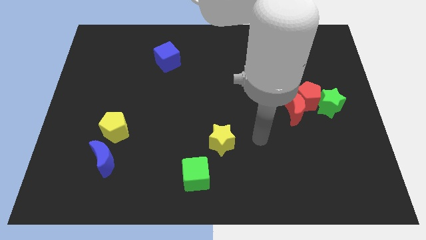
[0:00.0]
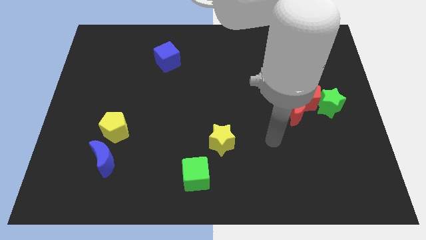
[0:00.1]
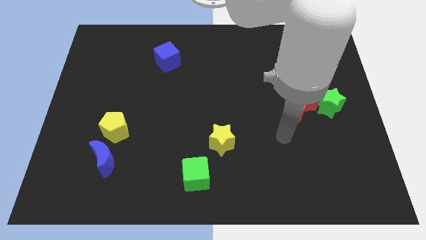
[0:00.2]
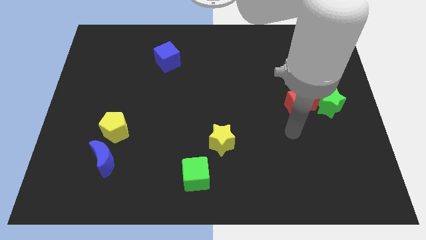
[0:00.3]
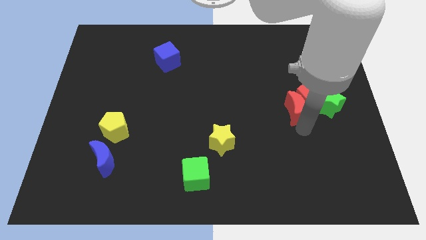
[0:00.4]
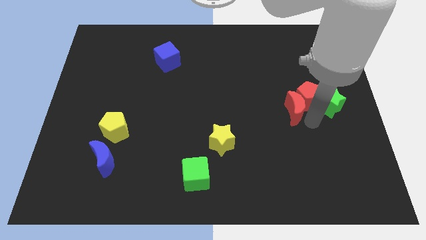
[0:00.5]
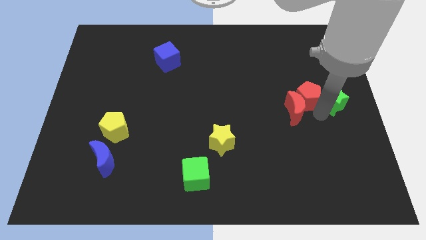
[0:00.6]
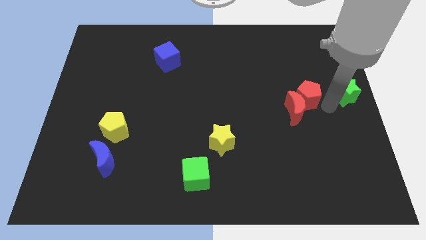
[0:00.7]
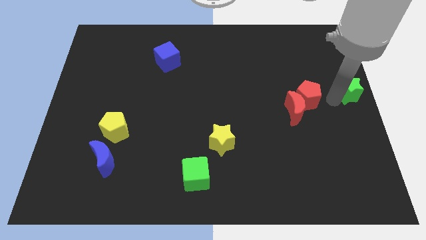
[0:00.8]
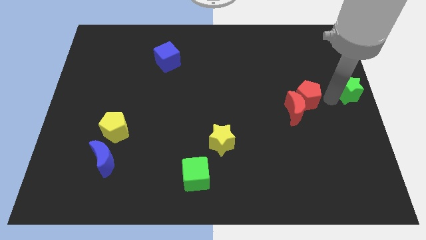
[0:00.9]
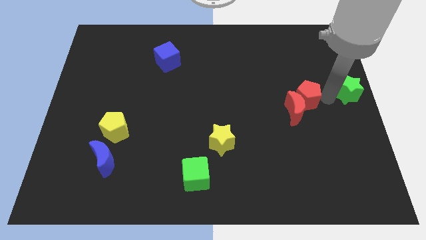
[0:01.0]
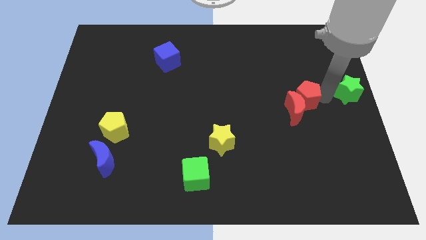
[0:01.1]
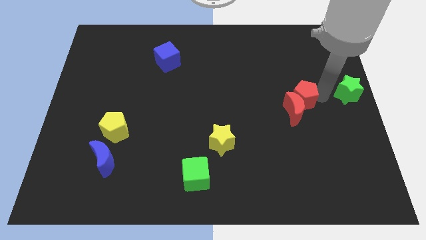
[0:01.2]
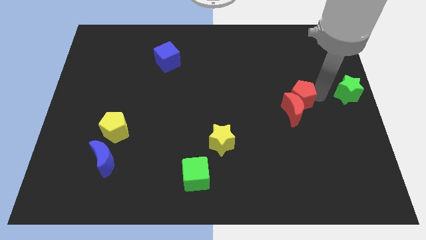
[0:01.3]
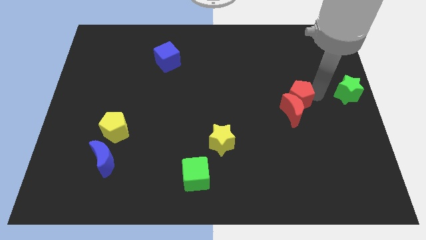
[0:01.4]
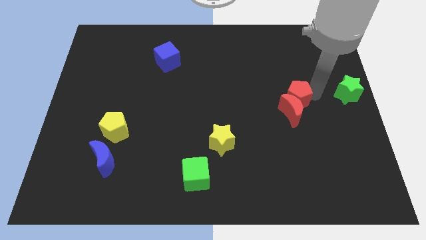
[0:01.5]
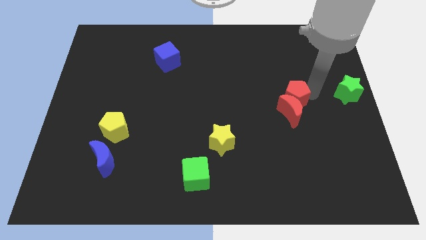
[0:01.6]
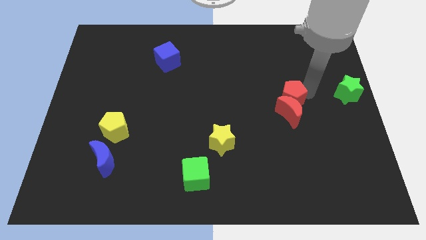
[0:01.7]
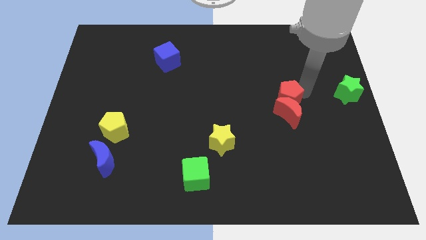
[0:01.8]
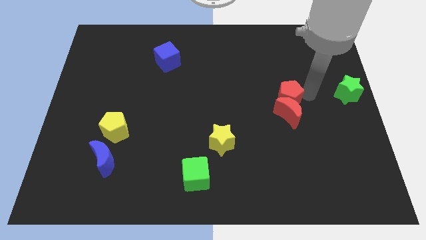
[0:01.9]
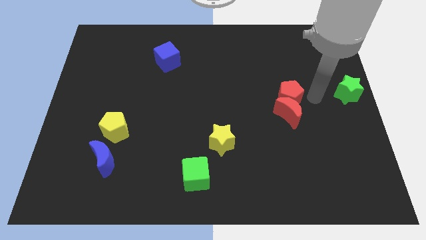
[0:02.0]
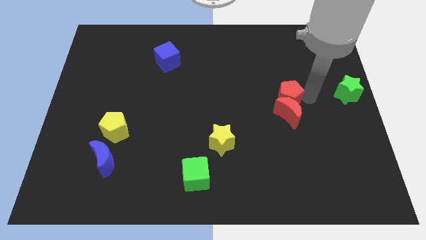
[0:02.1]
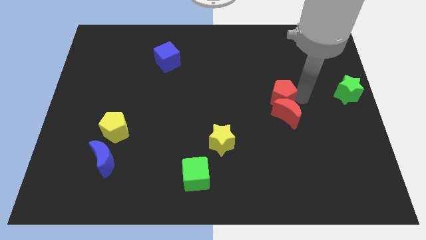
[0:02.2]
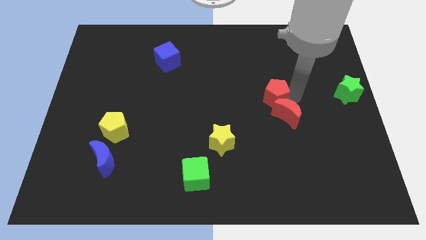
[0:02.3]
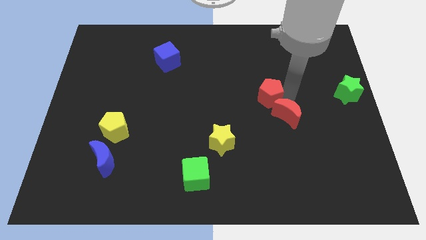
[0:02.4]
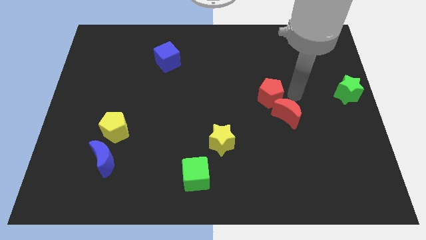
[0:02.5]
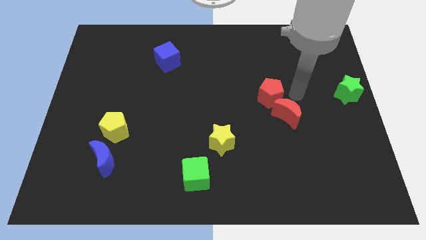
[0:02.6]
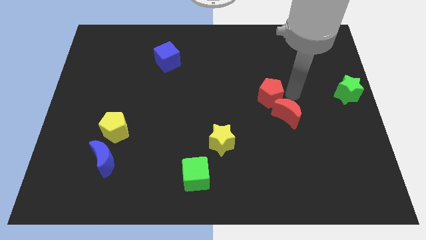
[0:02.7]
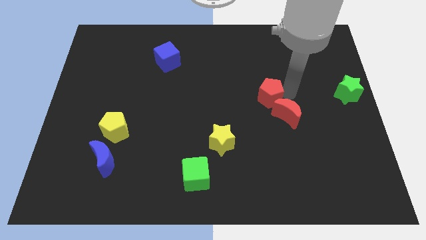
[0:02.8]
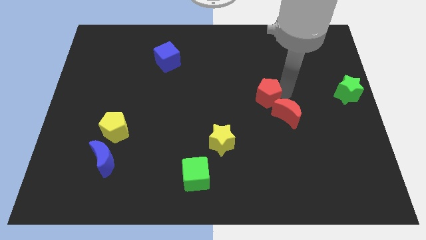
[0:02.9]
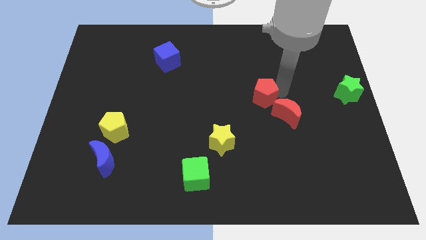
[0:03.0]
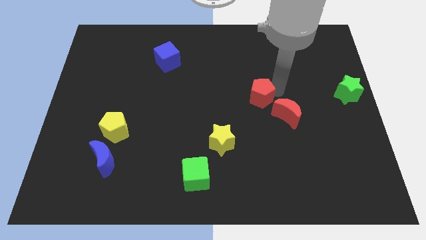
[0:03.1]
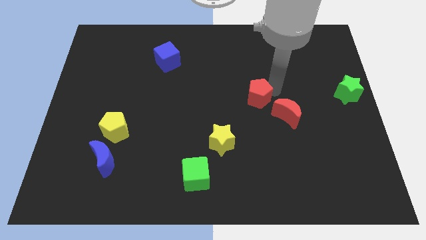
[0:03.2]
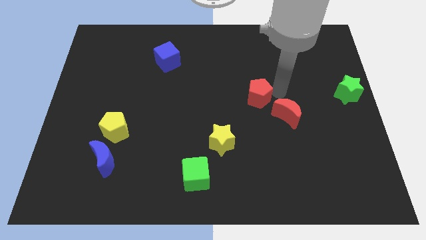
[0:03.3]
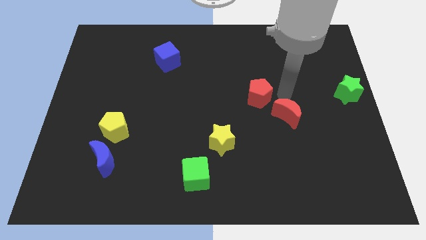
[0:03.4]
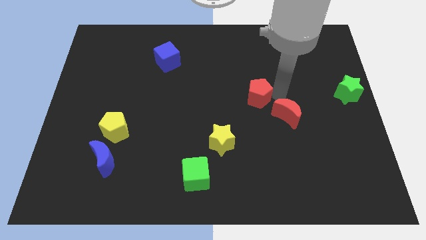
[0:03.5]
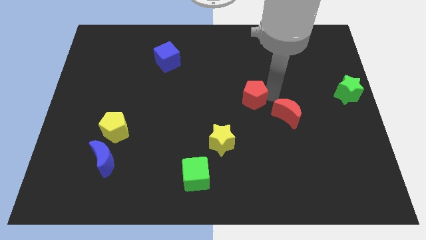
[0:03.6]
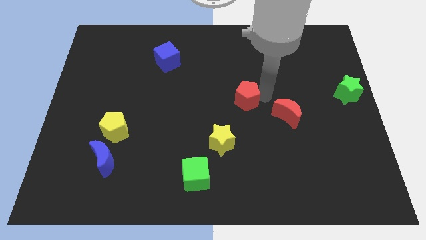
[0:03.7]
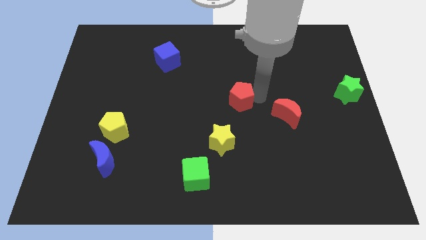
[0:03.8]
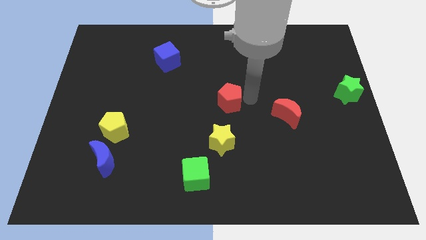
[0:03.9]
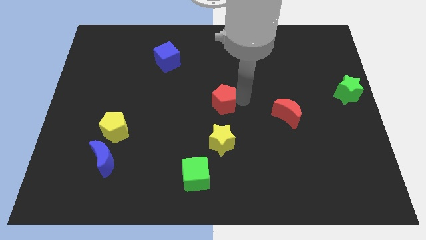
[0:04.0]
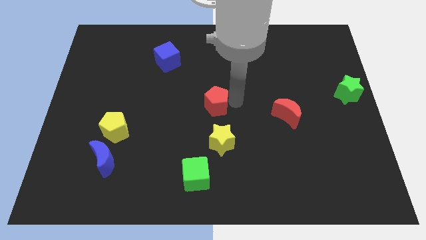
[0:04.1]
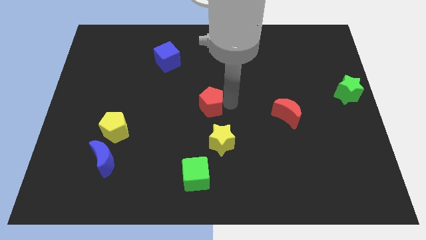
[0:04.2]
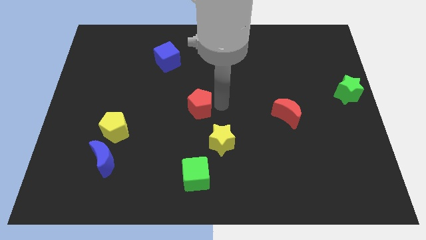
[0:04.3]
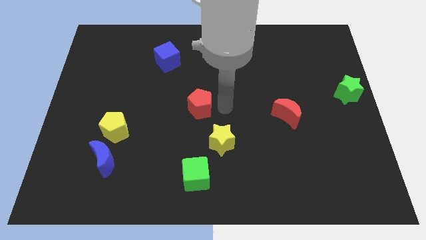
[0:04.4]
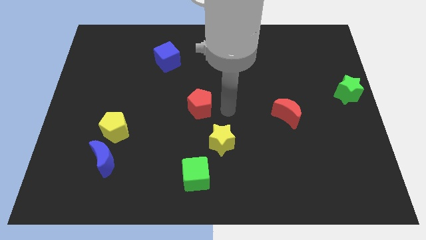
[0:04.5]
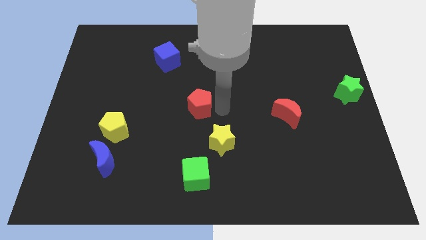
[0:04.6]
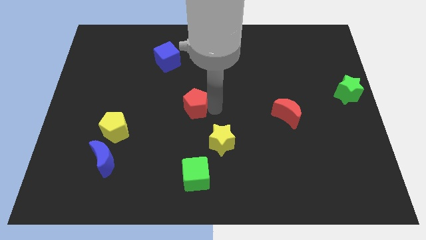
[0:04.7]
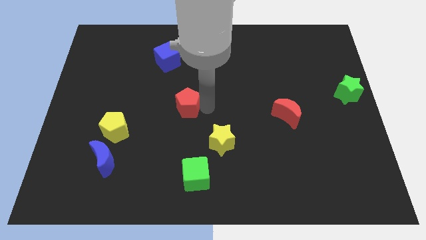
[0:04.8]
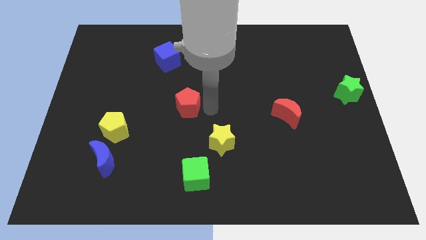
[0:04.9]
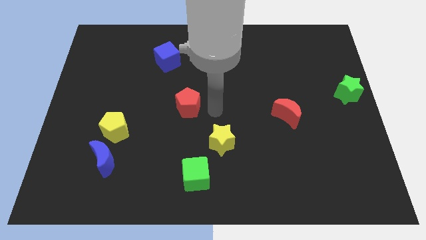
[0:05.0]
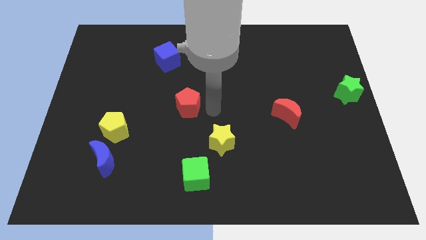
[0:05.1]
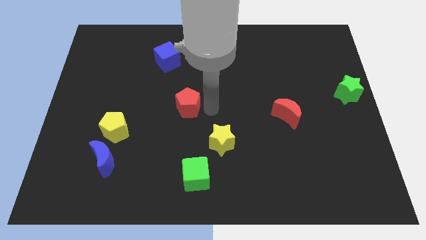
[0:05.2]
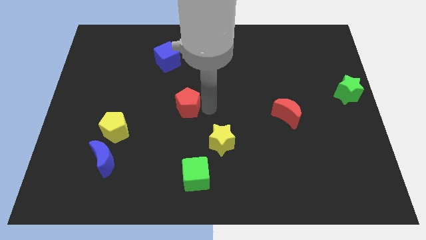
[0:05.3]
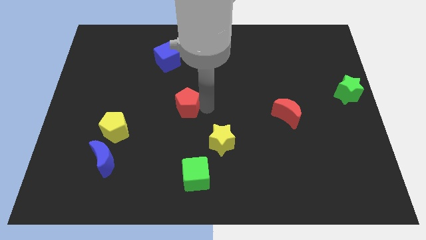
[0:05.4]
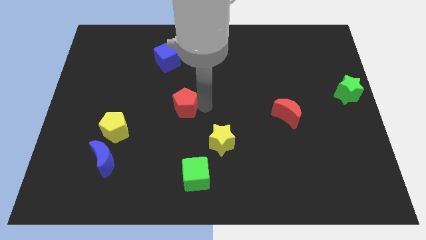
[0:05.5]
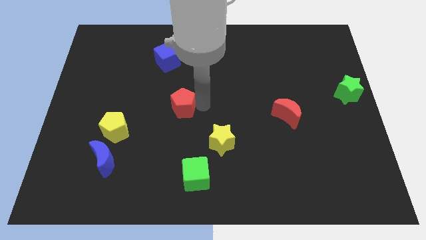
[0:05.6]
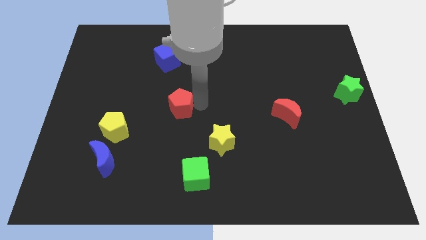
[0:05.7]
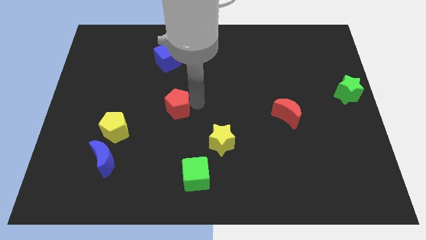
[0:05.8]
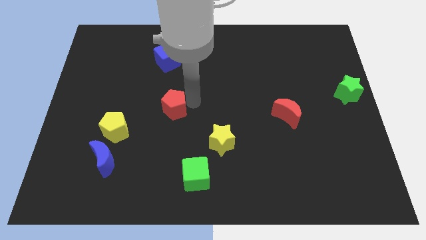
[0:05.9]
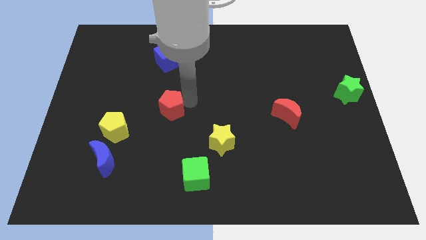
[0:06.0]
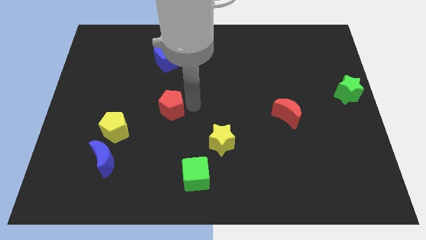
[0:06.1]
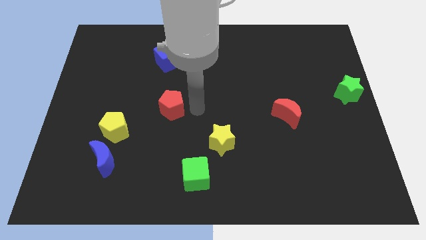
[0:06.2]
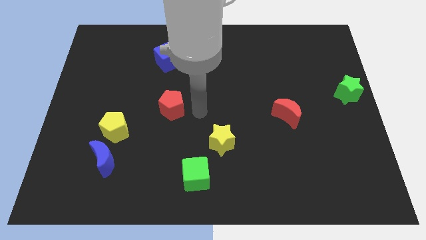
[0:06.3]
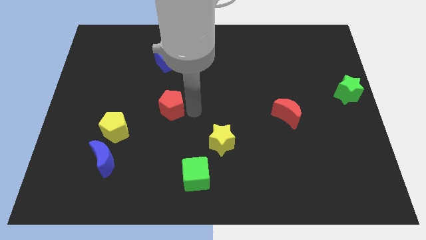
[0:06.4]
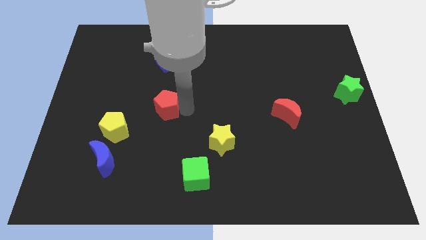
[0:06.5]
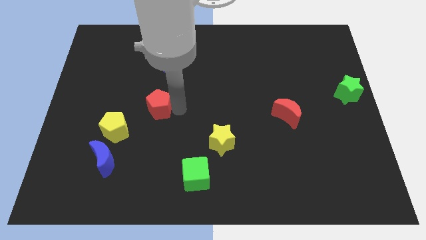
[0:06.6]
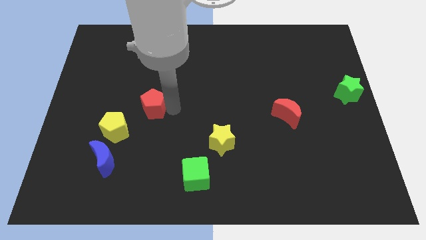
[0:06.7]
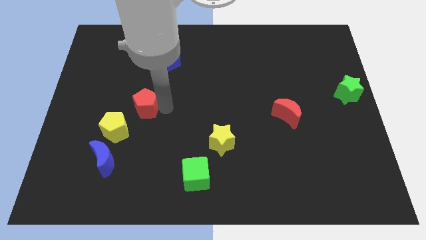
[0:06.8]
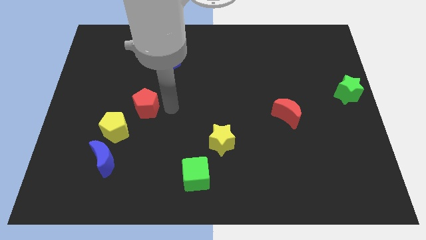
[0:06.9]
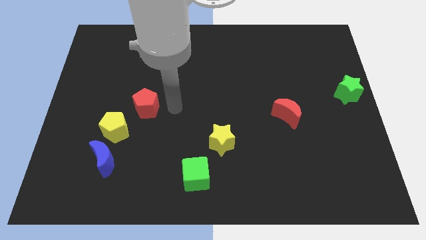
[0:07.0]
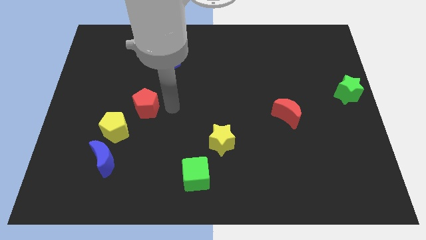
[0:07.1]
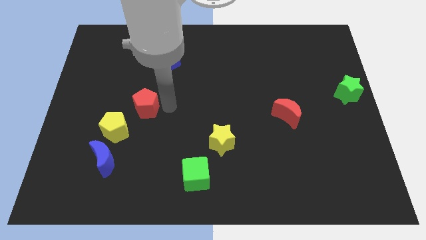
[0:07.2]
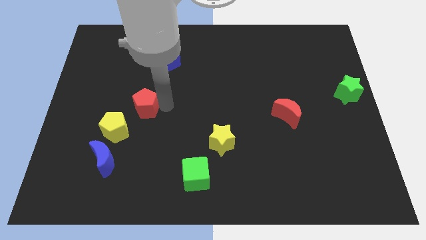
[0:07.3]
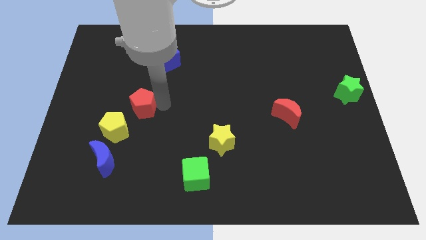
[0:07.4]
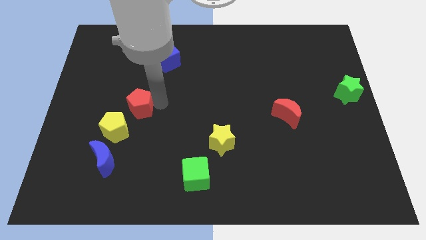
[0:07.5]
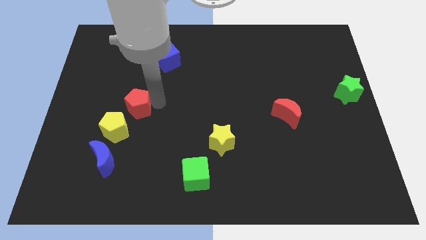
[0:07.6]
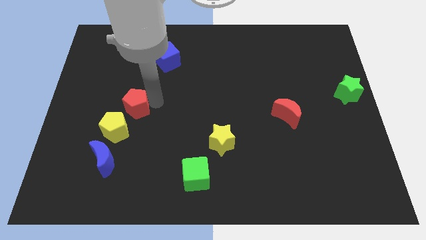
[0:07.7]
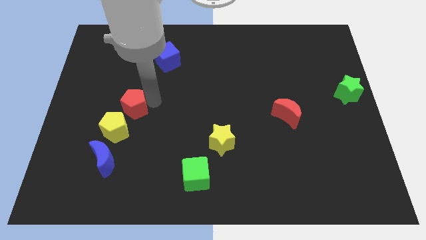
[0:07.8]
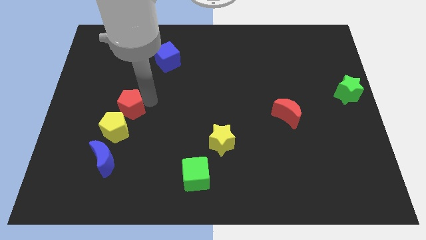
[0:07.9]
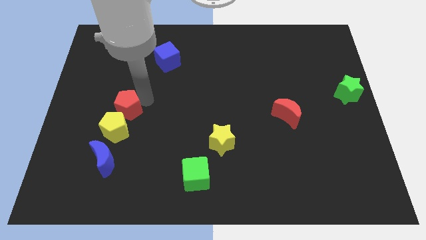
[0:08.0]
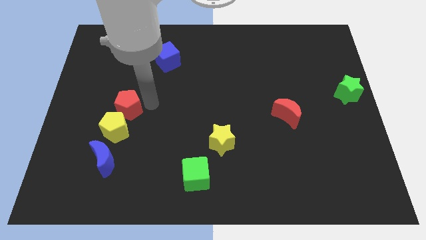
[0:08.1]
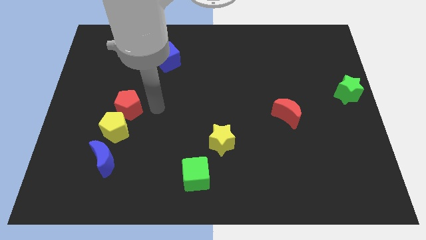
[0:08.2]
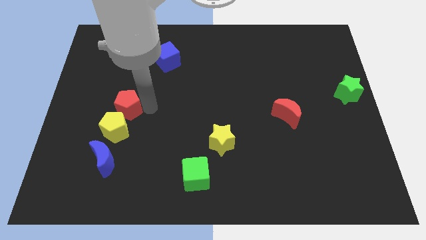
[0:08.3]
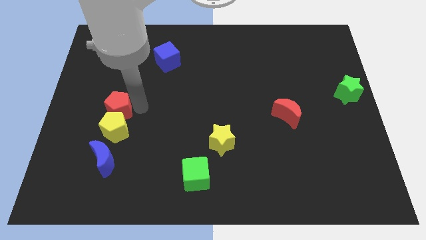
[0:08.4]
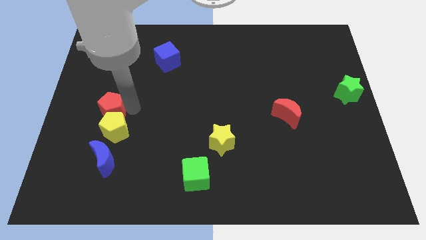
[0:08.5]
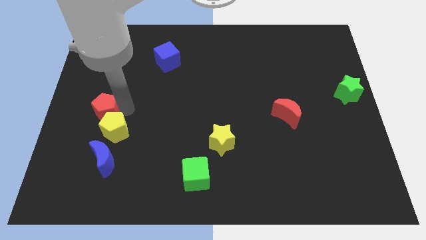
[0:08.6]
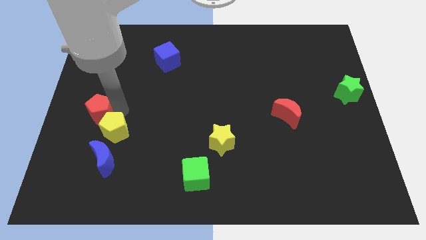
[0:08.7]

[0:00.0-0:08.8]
move the red pentagon to the left side
